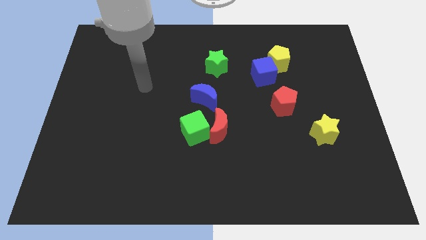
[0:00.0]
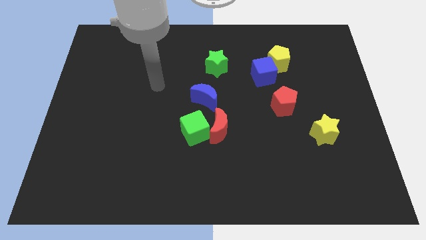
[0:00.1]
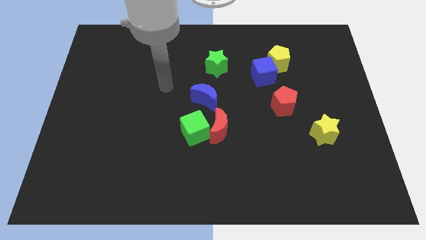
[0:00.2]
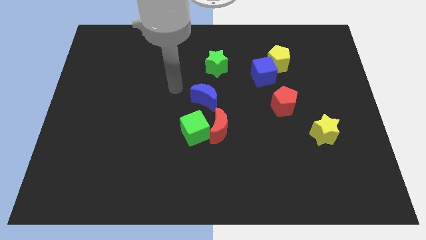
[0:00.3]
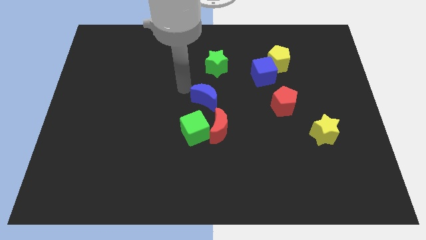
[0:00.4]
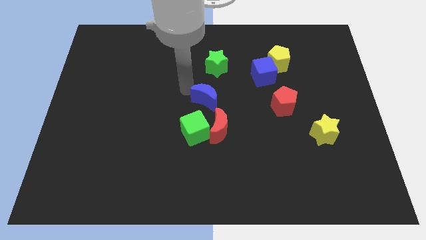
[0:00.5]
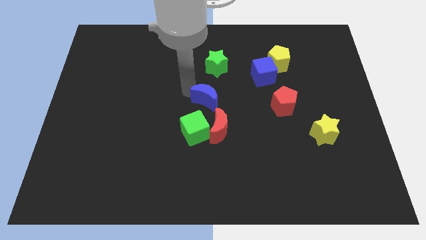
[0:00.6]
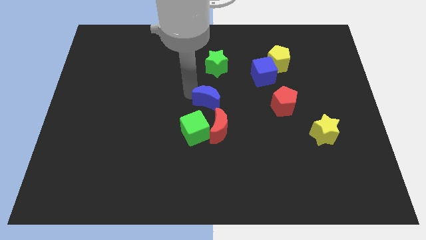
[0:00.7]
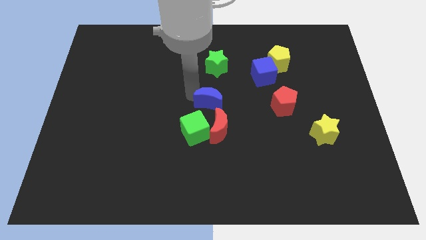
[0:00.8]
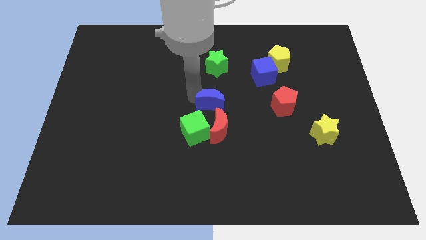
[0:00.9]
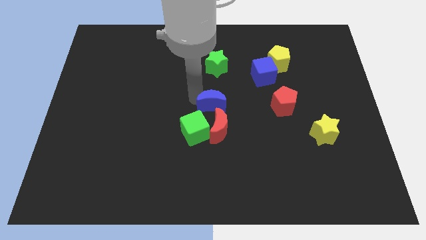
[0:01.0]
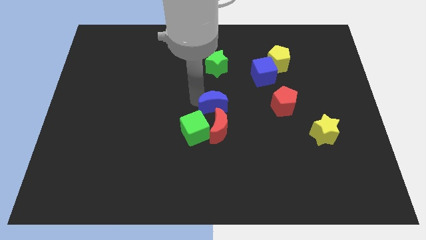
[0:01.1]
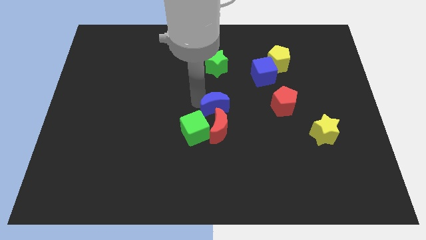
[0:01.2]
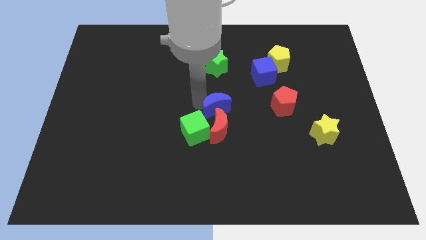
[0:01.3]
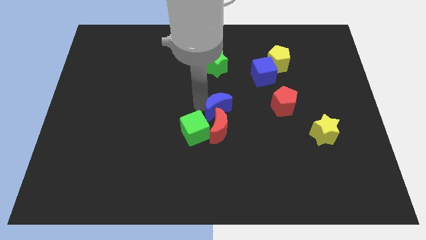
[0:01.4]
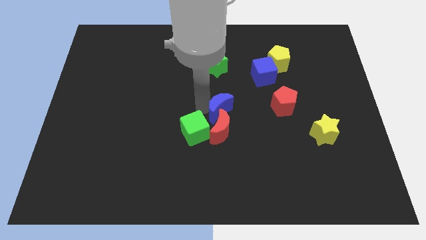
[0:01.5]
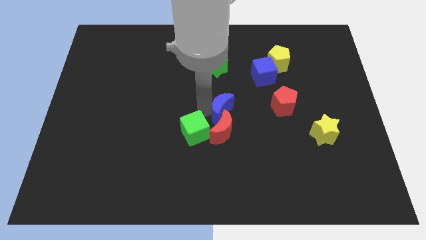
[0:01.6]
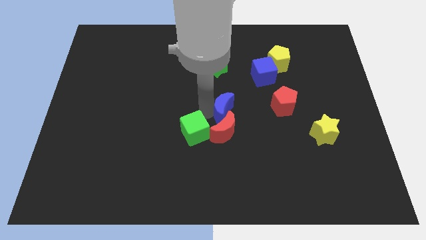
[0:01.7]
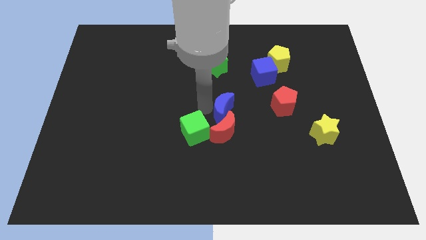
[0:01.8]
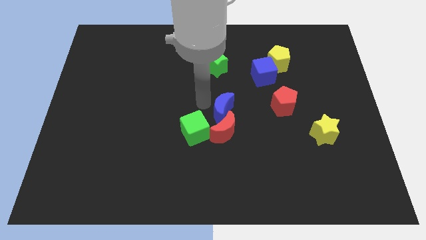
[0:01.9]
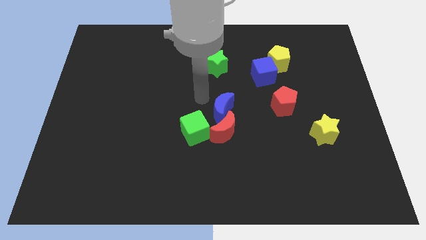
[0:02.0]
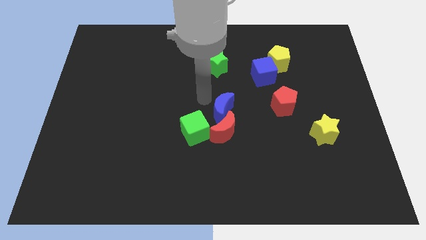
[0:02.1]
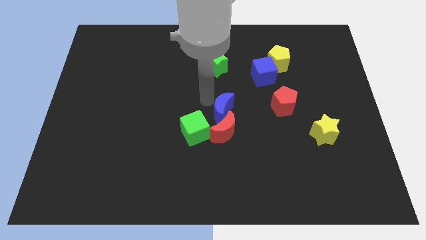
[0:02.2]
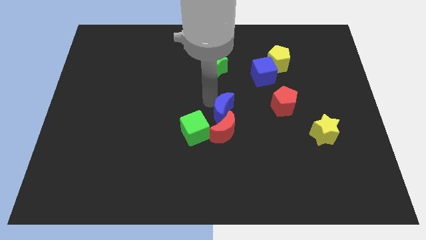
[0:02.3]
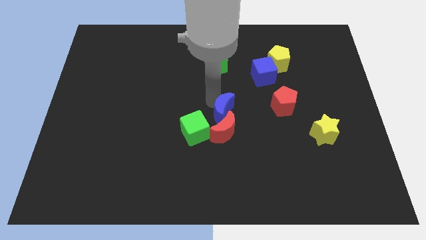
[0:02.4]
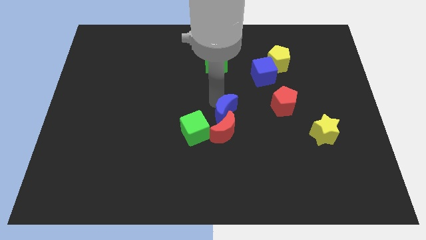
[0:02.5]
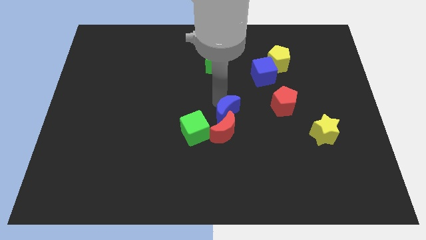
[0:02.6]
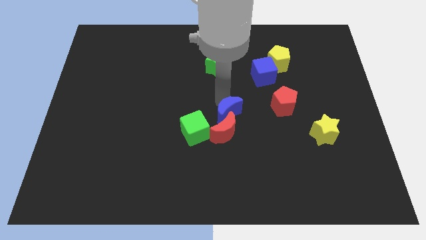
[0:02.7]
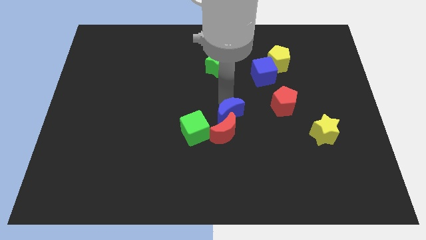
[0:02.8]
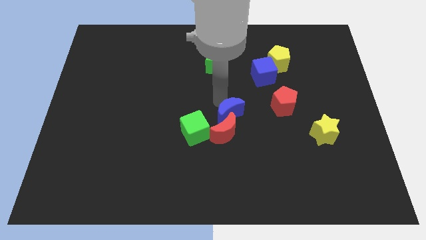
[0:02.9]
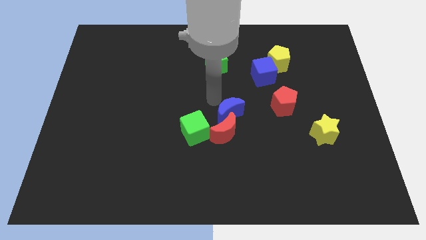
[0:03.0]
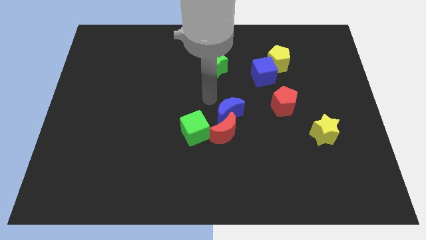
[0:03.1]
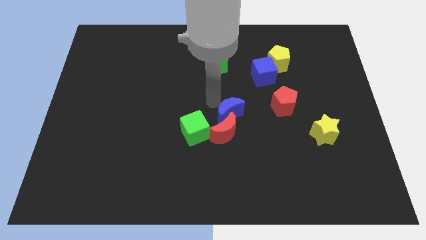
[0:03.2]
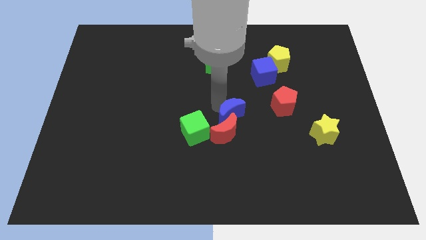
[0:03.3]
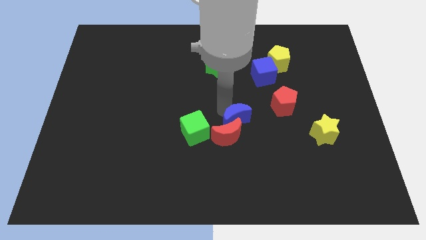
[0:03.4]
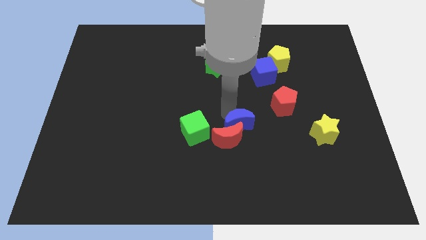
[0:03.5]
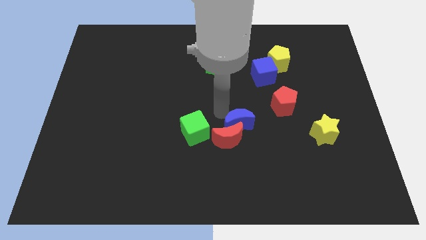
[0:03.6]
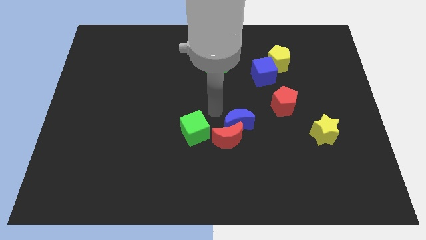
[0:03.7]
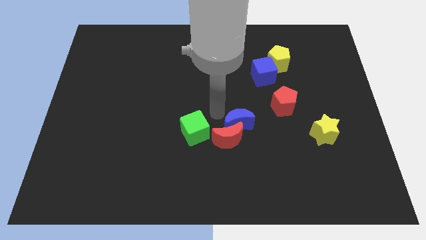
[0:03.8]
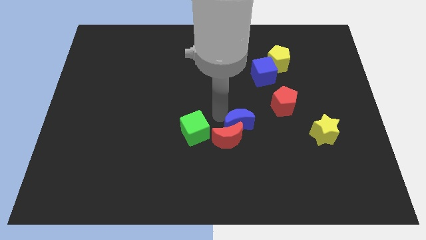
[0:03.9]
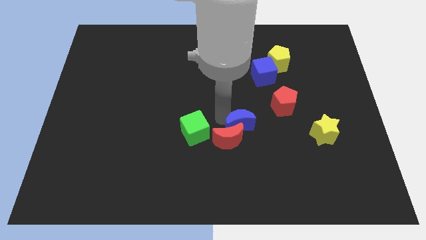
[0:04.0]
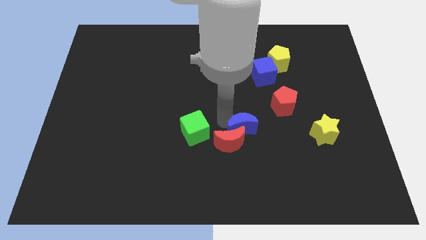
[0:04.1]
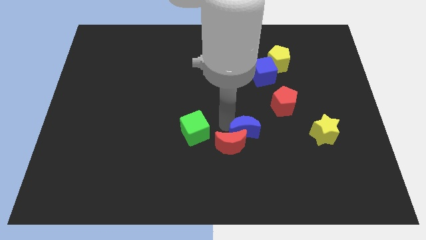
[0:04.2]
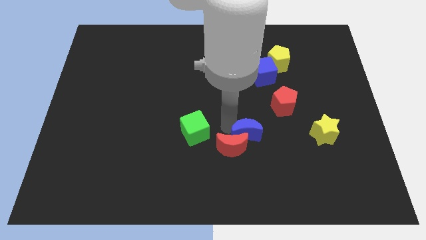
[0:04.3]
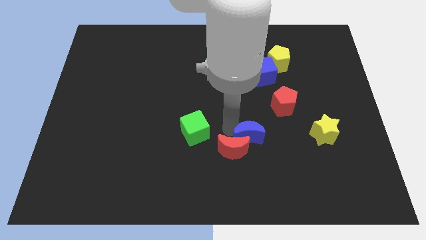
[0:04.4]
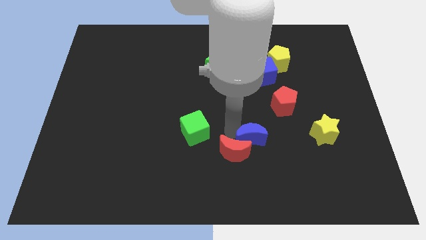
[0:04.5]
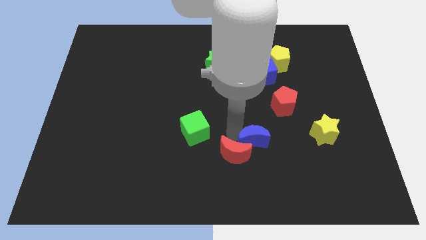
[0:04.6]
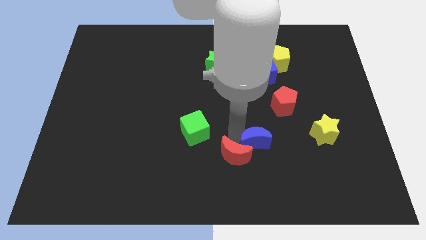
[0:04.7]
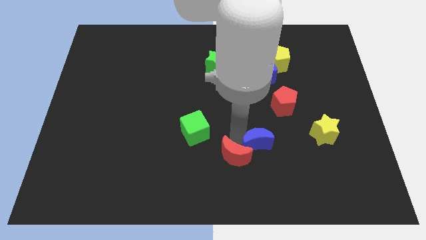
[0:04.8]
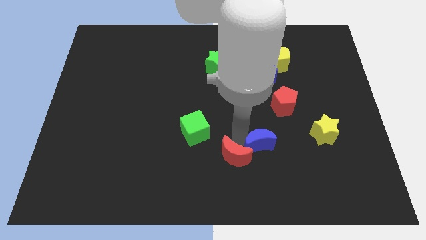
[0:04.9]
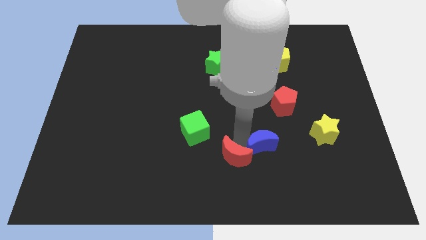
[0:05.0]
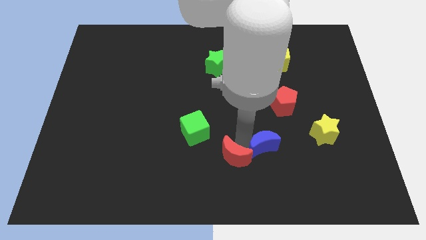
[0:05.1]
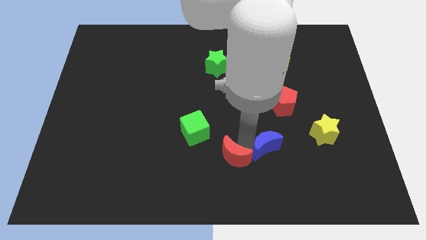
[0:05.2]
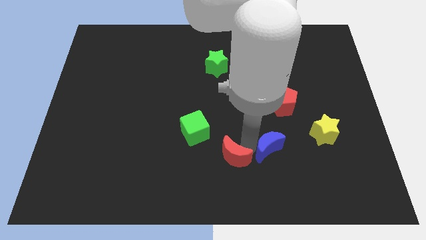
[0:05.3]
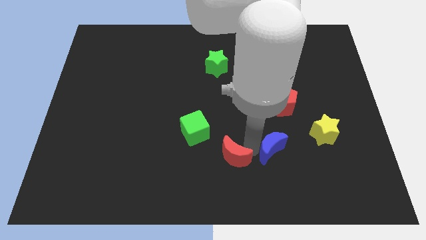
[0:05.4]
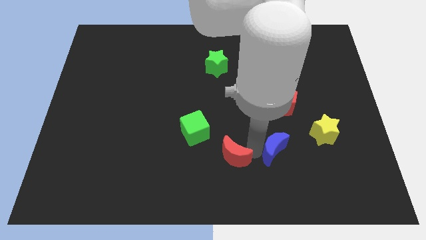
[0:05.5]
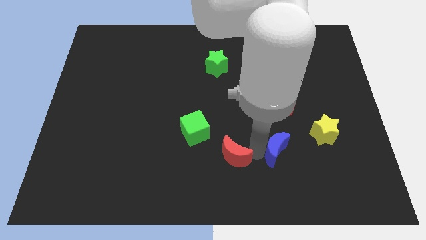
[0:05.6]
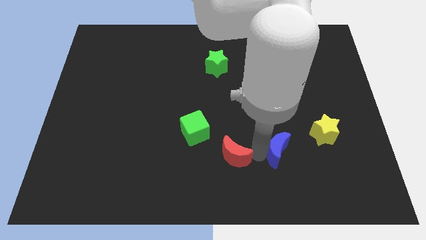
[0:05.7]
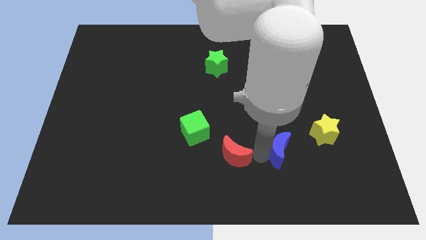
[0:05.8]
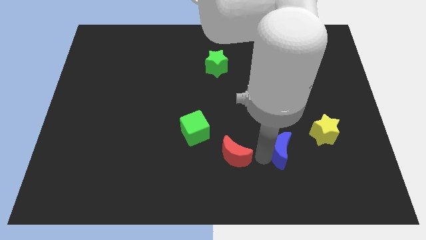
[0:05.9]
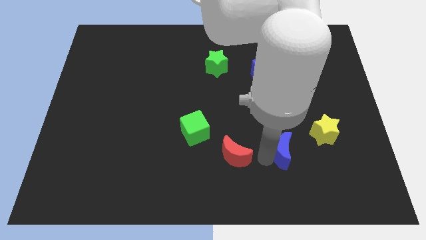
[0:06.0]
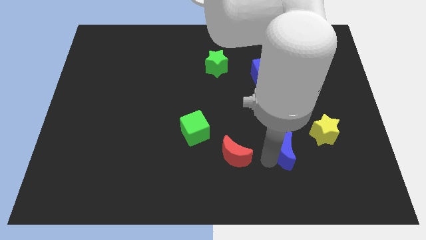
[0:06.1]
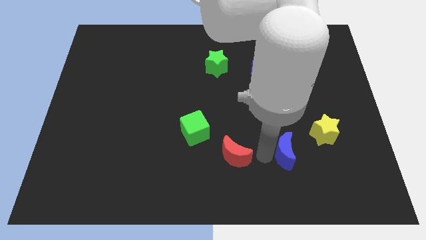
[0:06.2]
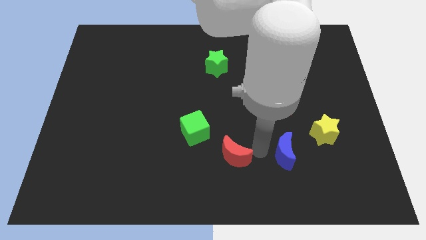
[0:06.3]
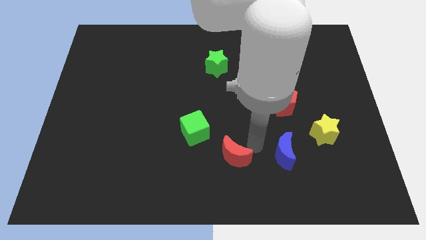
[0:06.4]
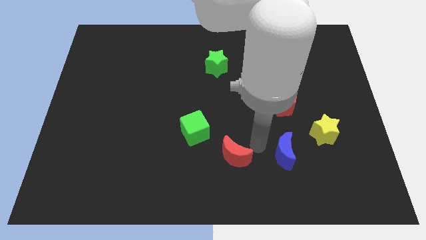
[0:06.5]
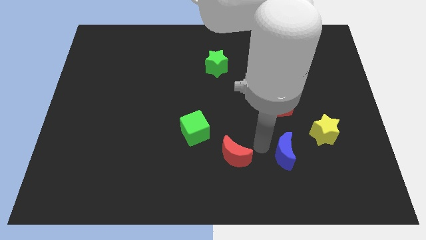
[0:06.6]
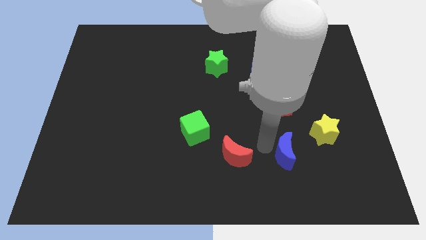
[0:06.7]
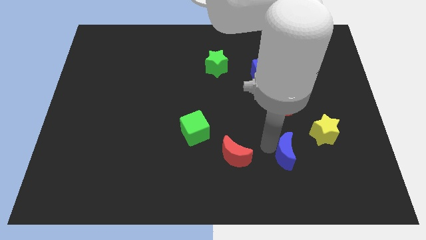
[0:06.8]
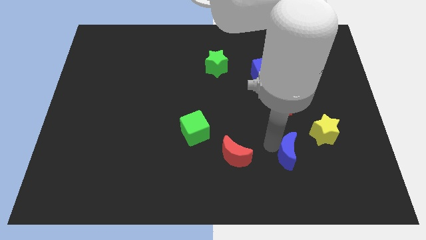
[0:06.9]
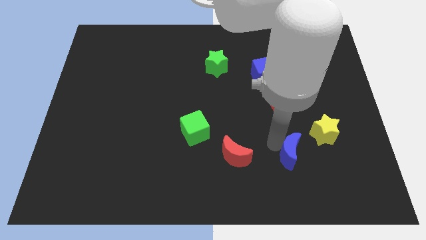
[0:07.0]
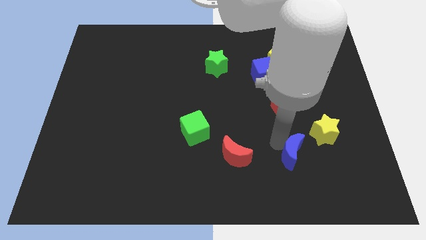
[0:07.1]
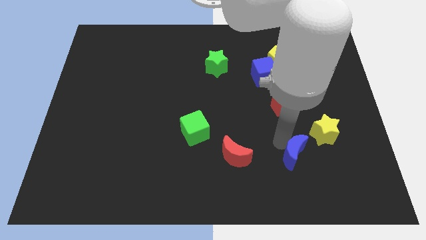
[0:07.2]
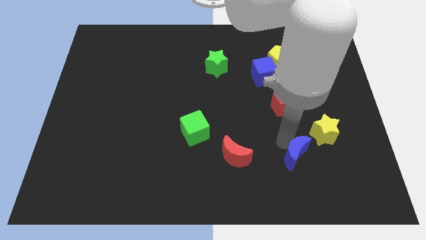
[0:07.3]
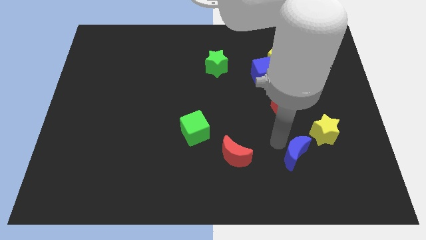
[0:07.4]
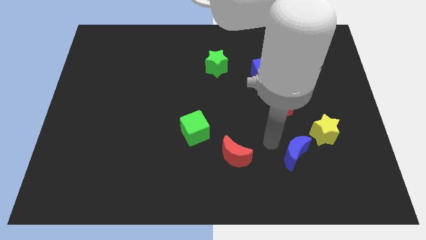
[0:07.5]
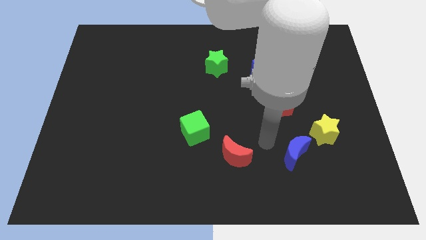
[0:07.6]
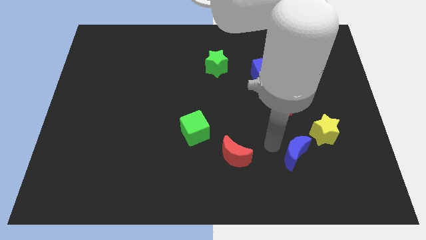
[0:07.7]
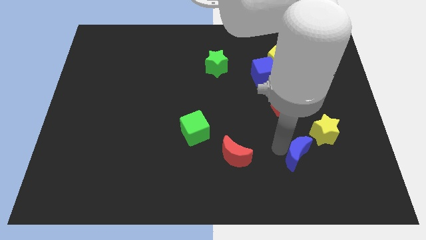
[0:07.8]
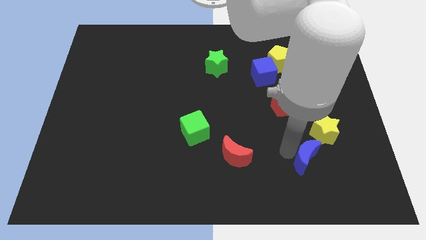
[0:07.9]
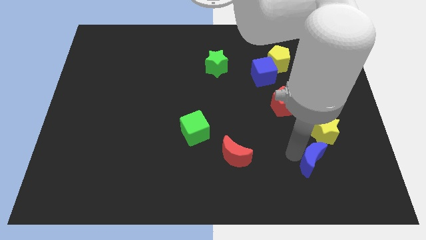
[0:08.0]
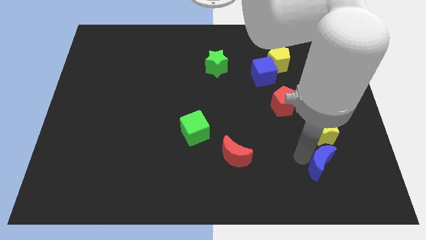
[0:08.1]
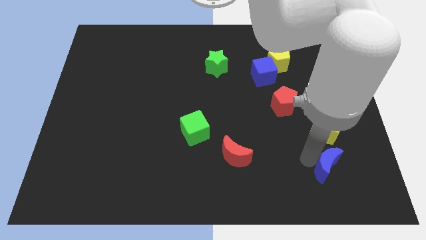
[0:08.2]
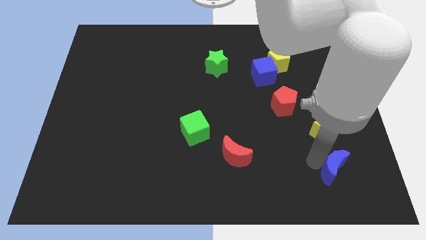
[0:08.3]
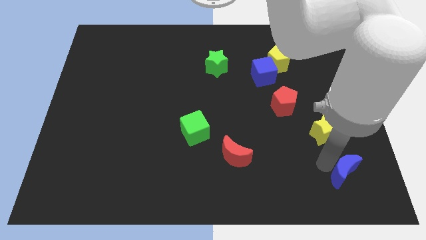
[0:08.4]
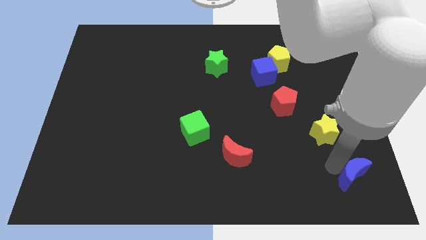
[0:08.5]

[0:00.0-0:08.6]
slide the blue moon to the bottom right
